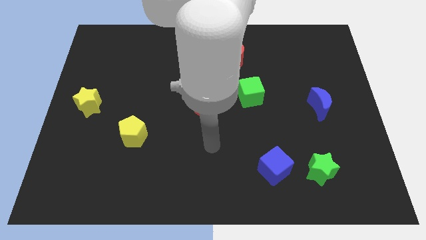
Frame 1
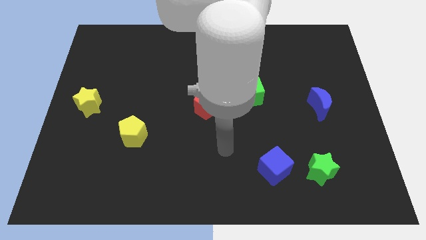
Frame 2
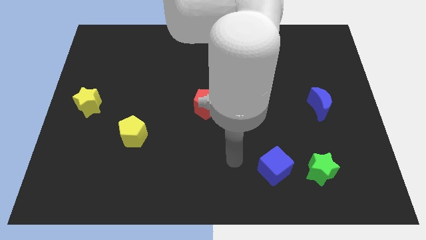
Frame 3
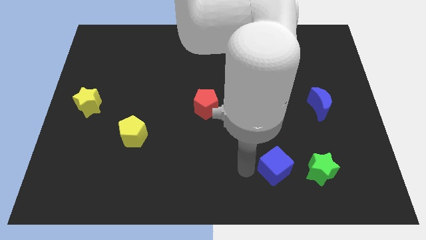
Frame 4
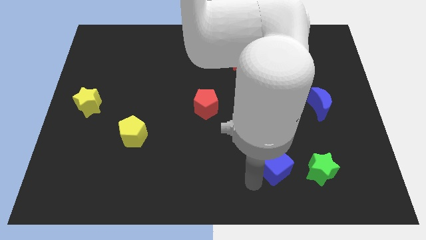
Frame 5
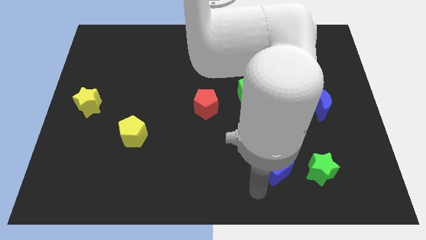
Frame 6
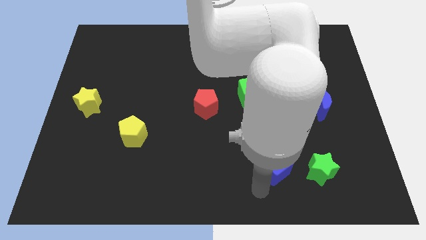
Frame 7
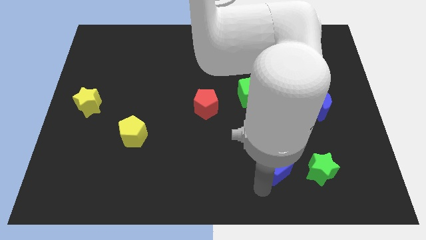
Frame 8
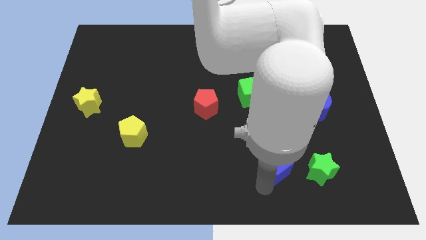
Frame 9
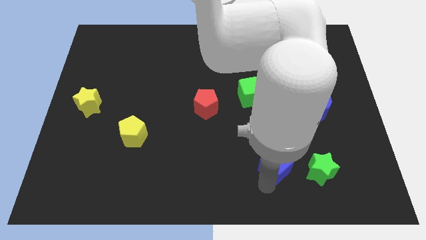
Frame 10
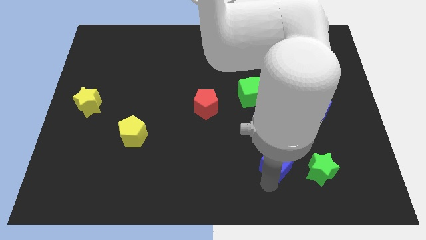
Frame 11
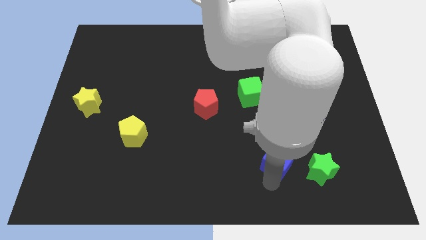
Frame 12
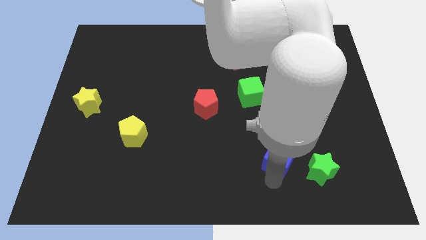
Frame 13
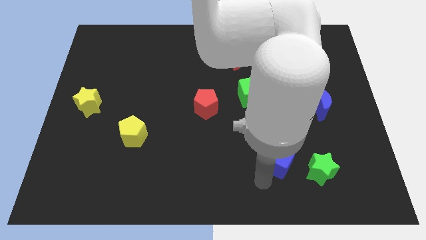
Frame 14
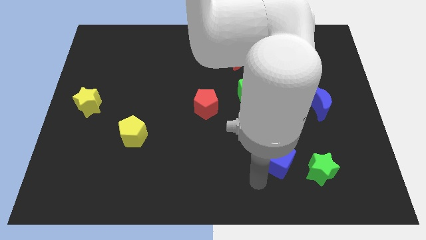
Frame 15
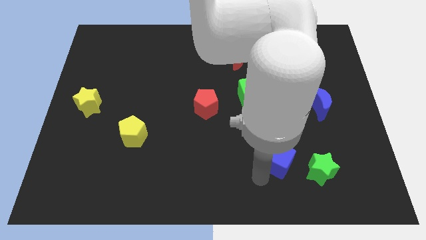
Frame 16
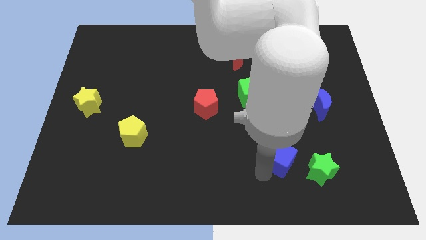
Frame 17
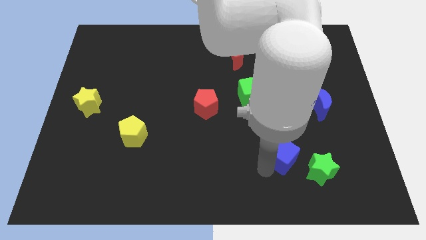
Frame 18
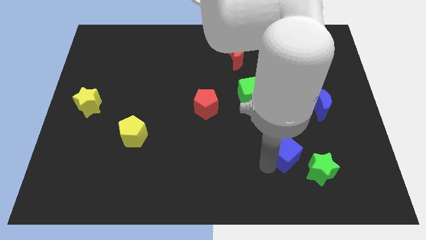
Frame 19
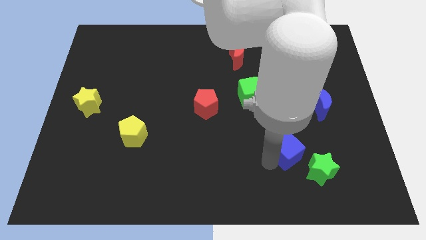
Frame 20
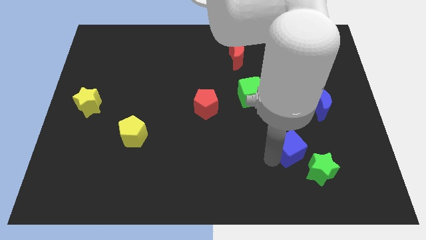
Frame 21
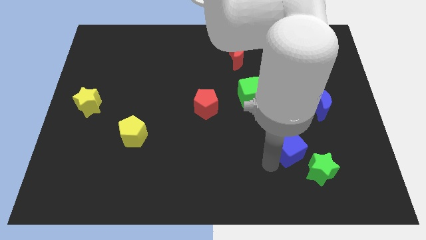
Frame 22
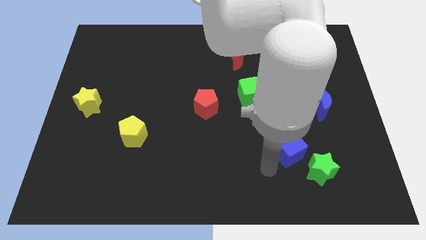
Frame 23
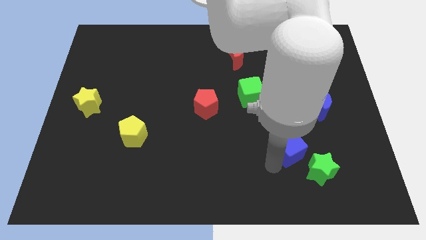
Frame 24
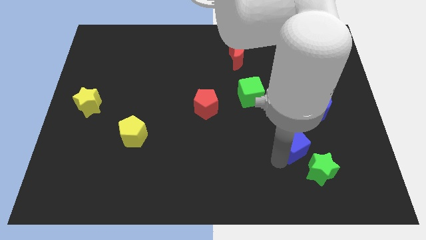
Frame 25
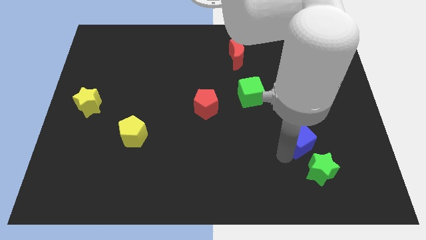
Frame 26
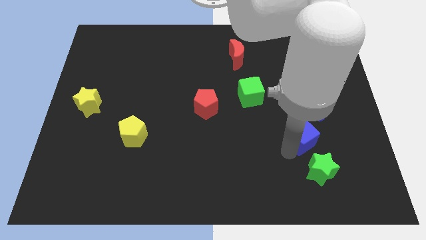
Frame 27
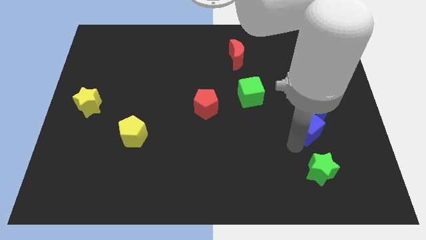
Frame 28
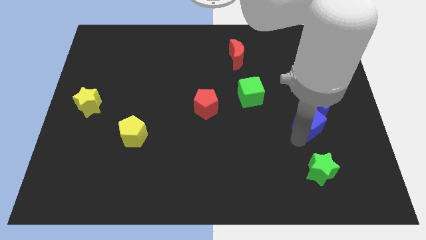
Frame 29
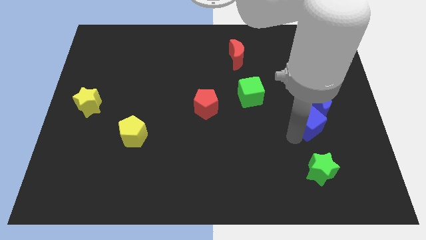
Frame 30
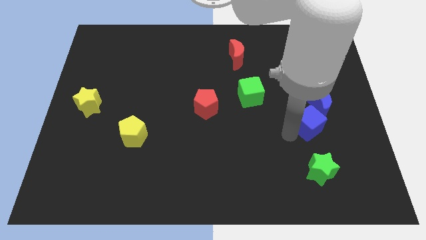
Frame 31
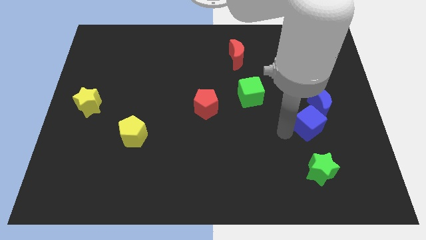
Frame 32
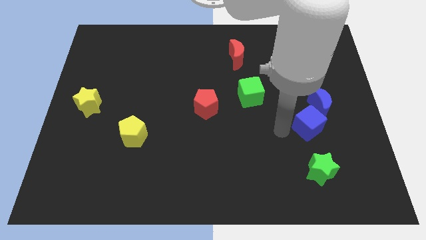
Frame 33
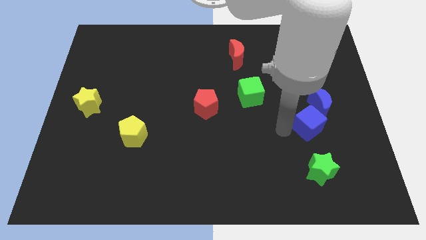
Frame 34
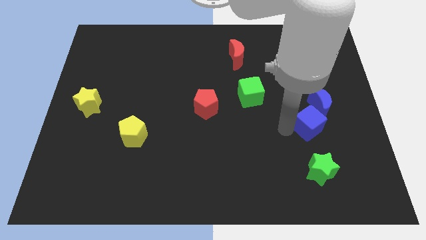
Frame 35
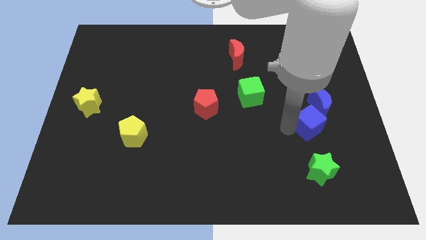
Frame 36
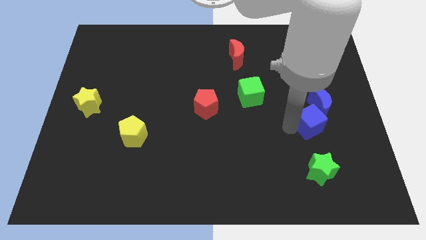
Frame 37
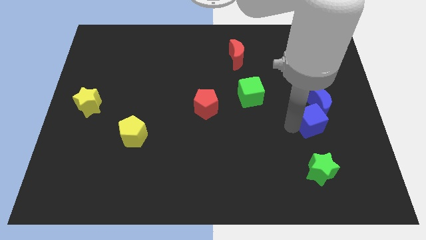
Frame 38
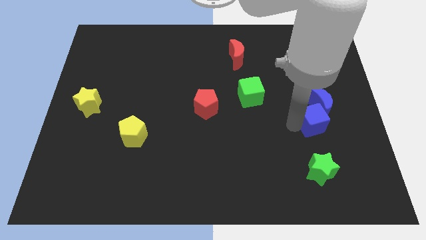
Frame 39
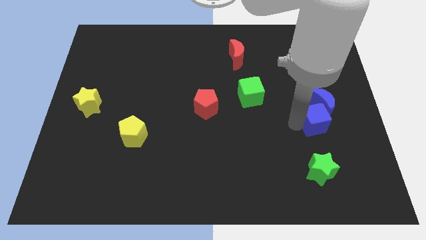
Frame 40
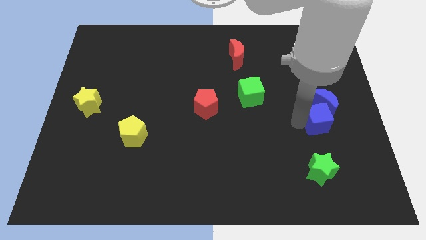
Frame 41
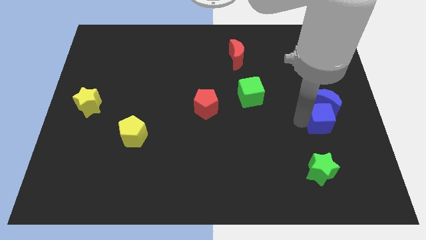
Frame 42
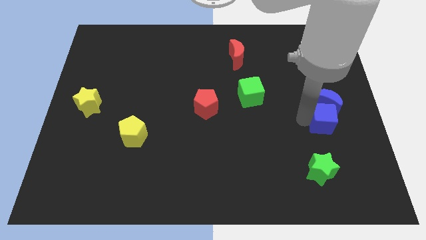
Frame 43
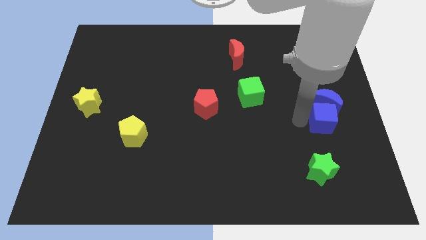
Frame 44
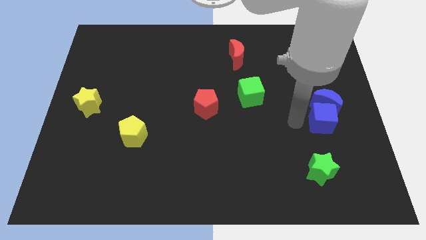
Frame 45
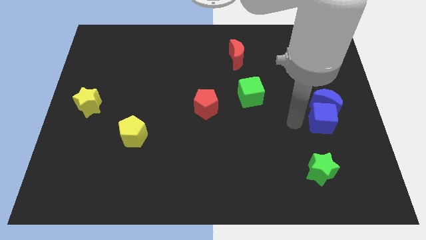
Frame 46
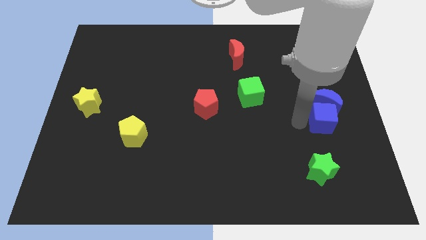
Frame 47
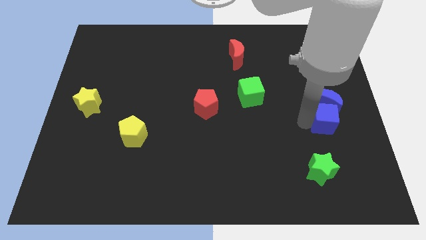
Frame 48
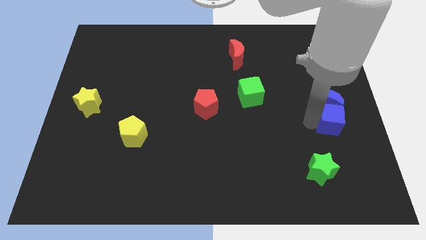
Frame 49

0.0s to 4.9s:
move the blue cube to the center right

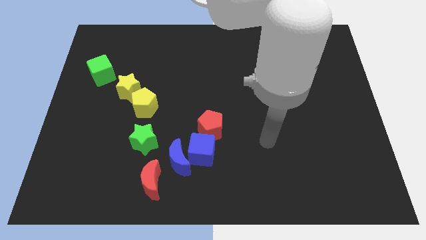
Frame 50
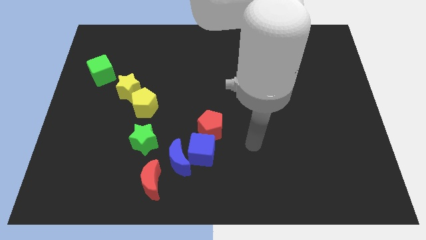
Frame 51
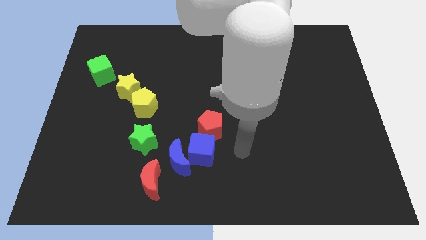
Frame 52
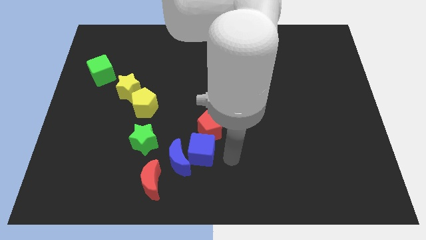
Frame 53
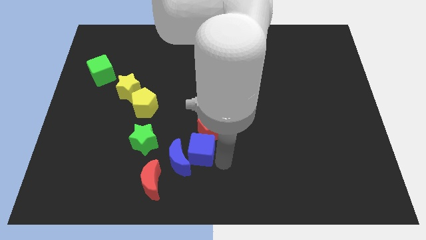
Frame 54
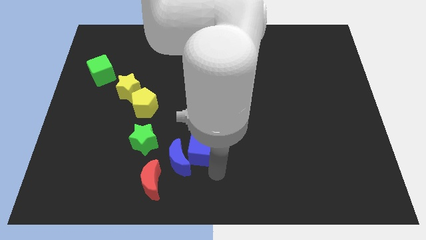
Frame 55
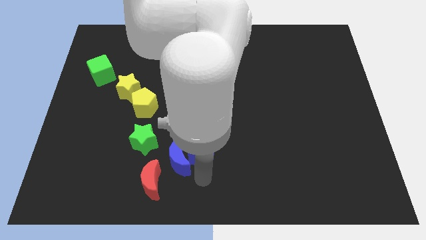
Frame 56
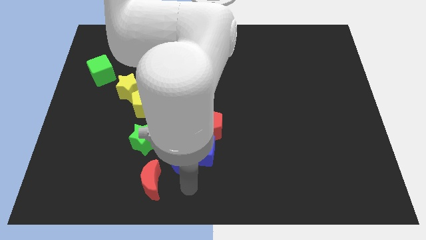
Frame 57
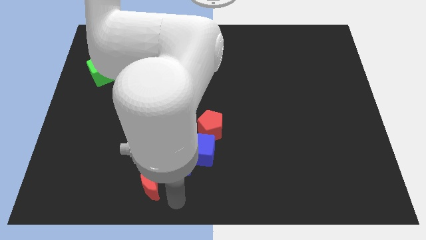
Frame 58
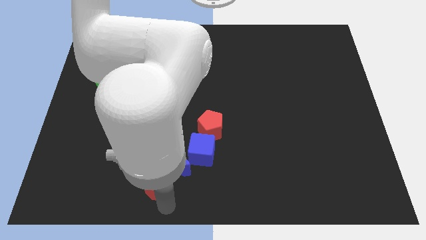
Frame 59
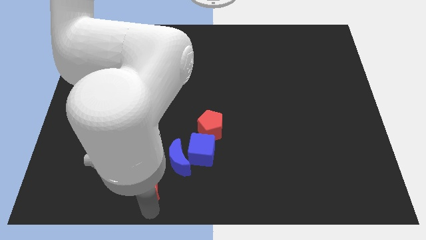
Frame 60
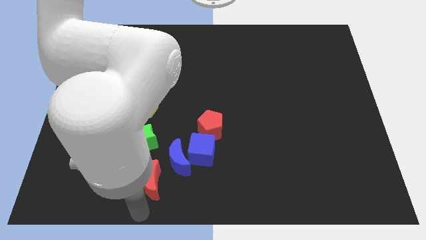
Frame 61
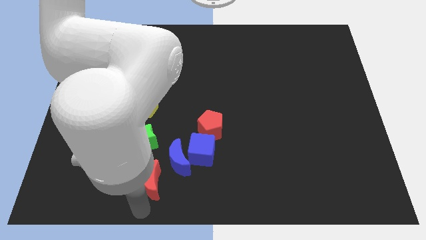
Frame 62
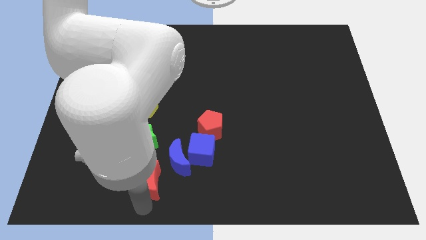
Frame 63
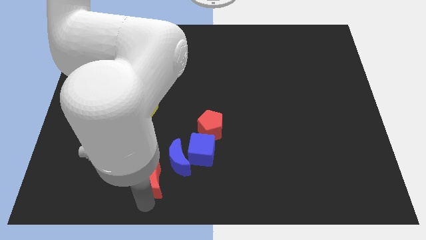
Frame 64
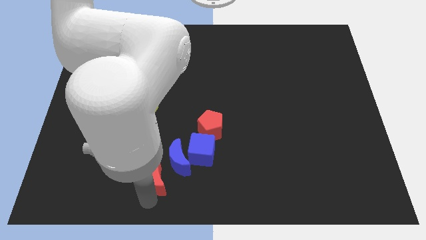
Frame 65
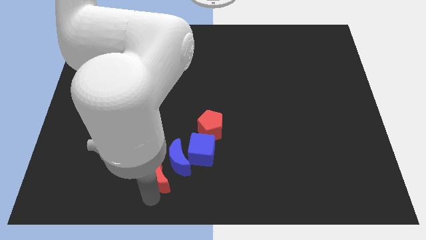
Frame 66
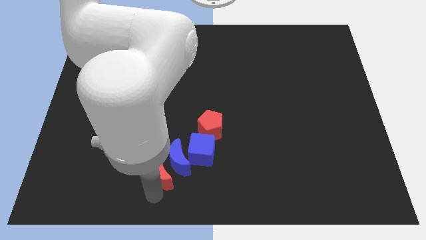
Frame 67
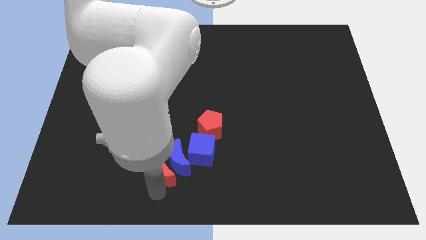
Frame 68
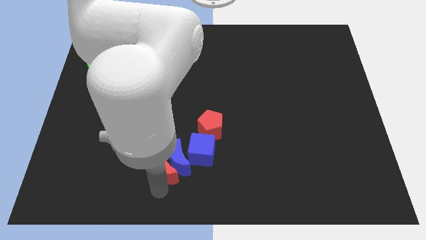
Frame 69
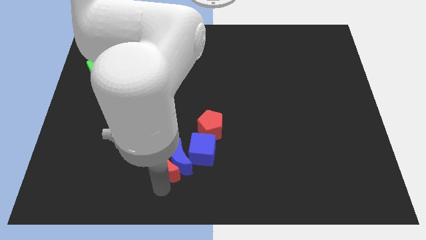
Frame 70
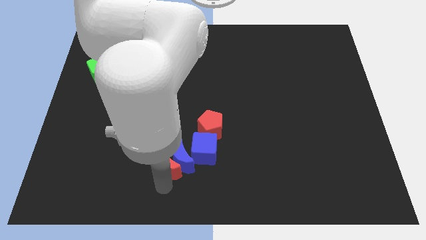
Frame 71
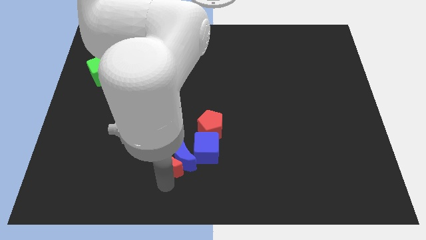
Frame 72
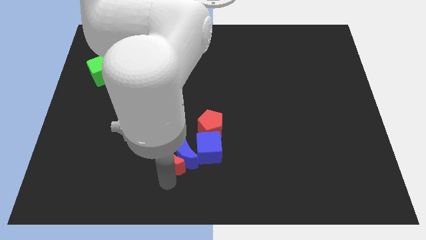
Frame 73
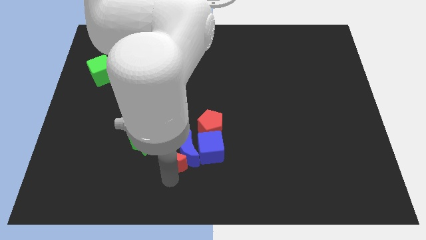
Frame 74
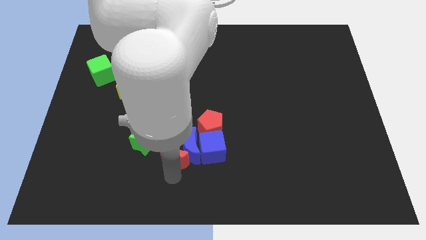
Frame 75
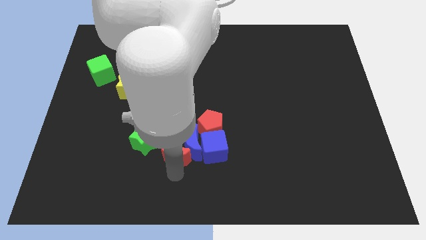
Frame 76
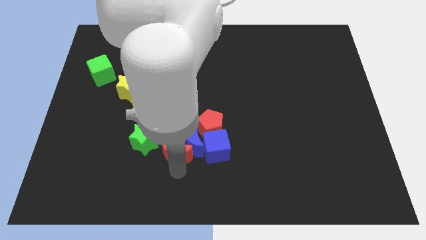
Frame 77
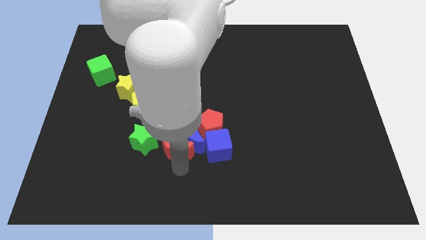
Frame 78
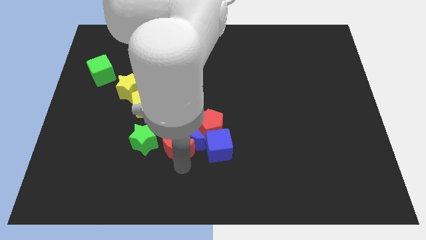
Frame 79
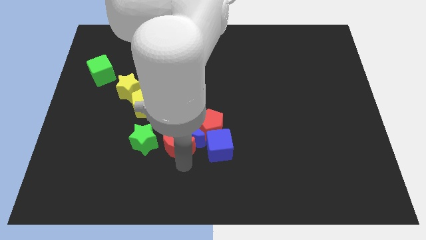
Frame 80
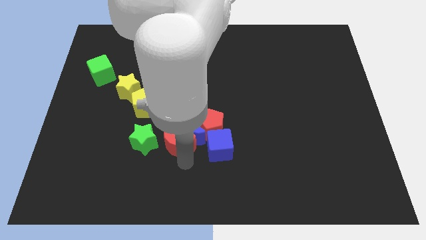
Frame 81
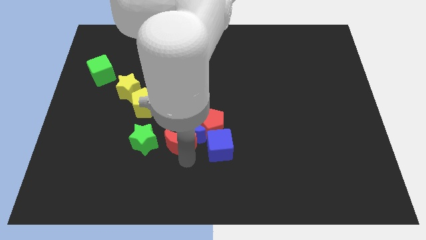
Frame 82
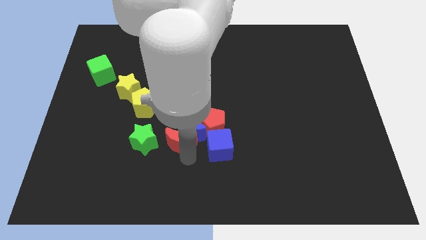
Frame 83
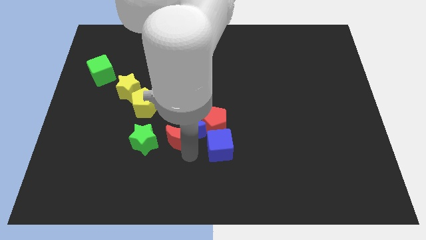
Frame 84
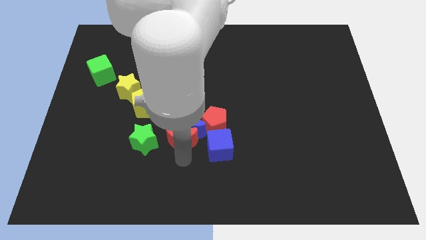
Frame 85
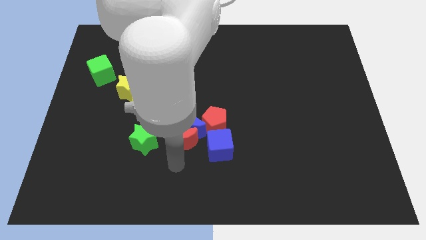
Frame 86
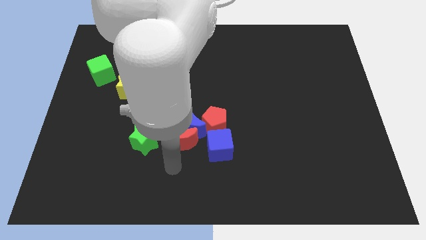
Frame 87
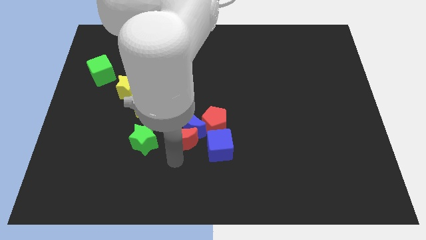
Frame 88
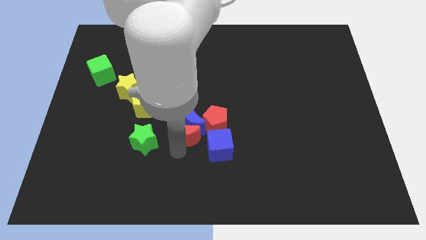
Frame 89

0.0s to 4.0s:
slide the red moon to the center
